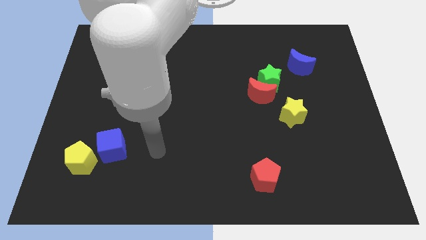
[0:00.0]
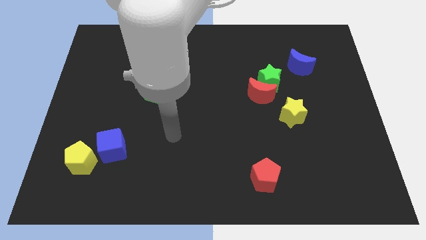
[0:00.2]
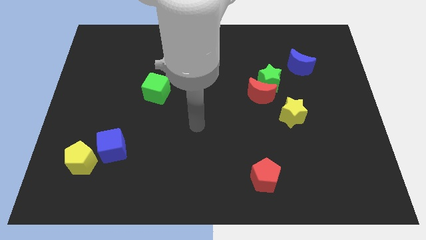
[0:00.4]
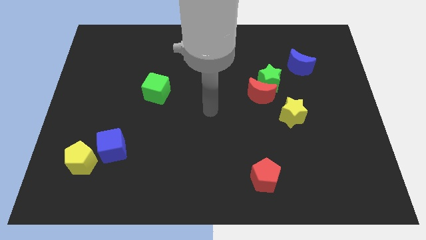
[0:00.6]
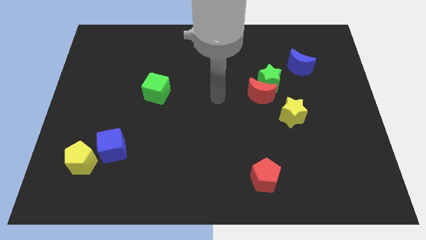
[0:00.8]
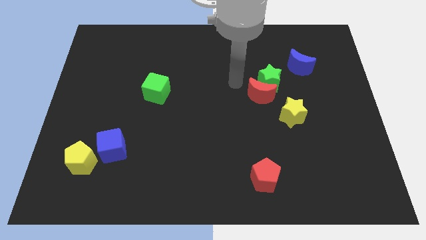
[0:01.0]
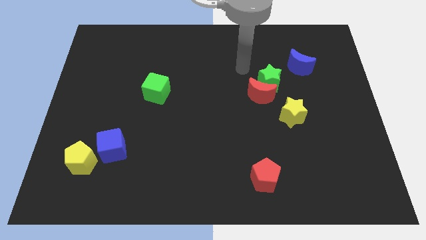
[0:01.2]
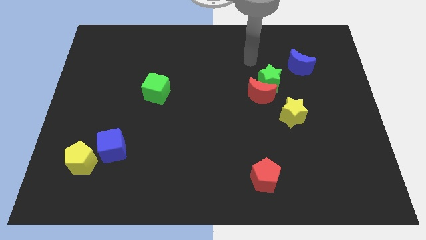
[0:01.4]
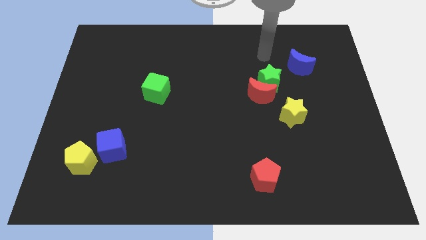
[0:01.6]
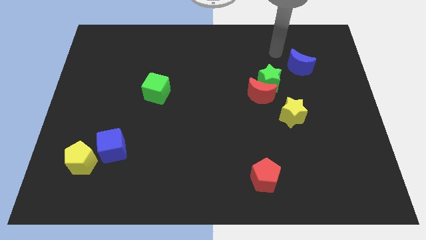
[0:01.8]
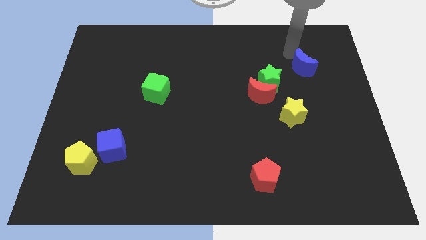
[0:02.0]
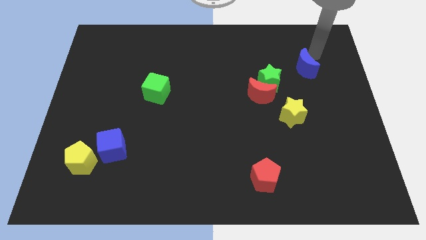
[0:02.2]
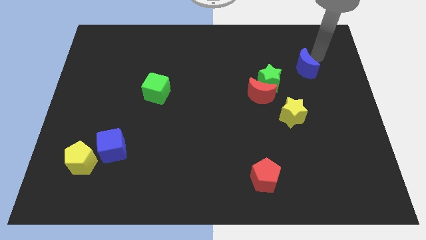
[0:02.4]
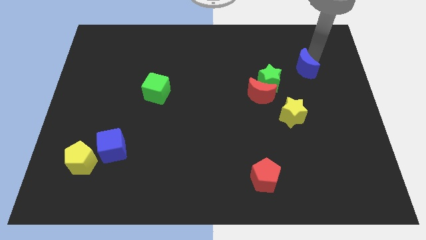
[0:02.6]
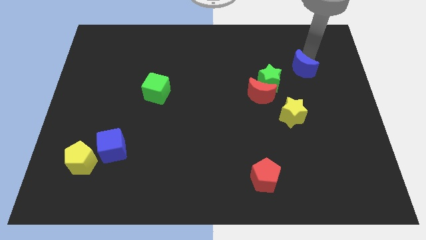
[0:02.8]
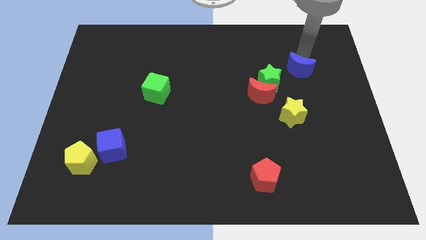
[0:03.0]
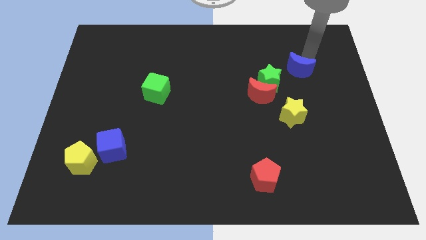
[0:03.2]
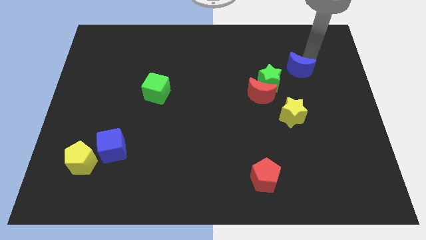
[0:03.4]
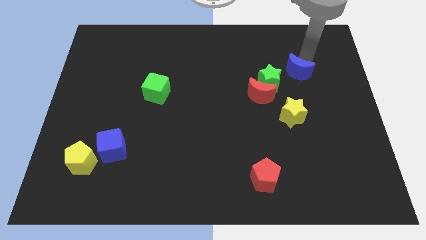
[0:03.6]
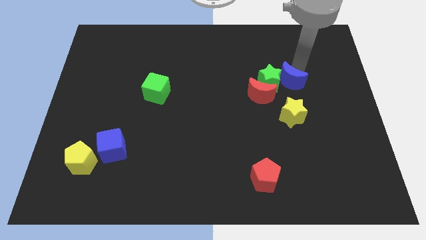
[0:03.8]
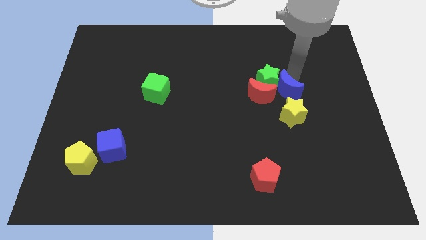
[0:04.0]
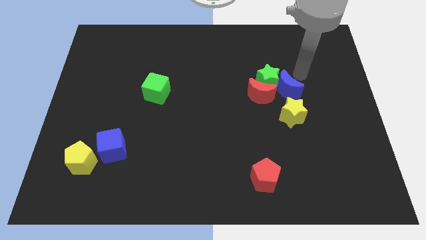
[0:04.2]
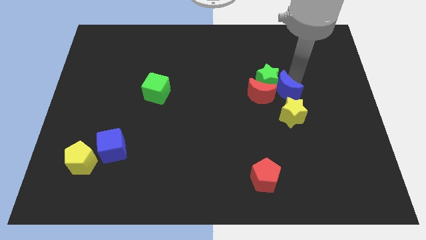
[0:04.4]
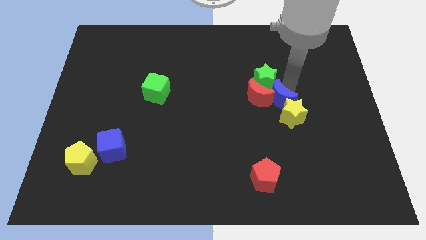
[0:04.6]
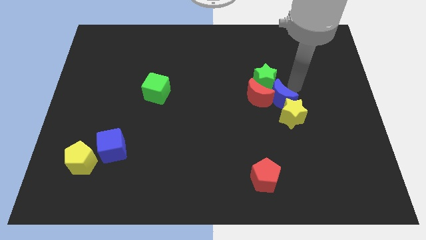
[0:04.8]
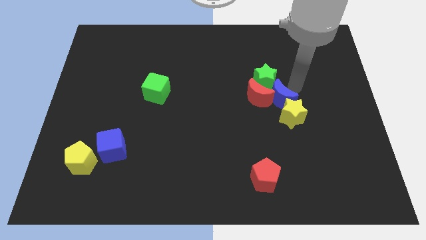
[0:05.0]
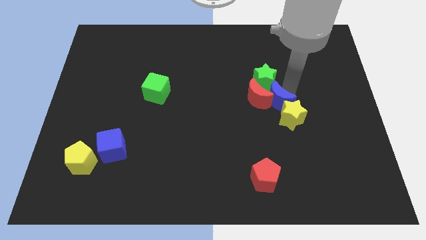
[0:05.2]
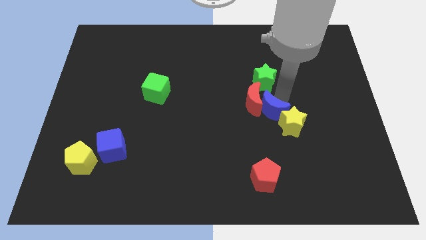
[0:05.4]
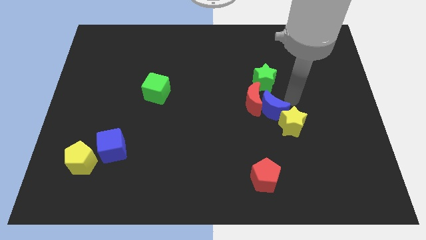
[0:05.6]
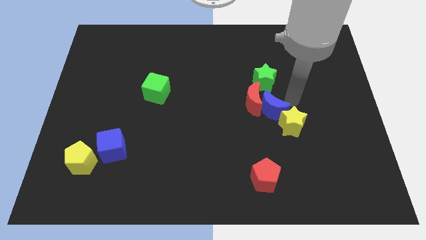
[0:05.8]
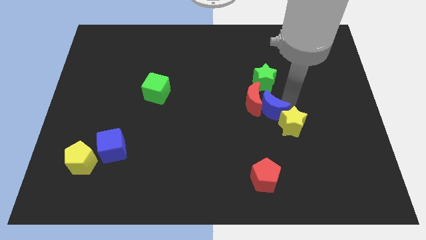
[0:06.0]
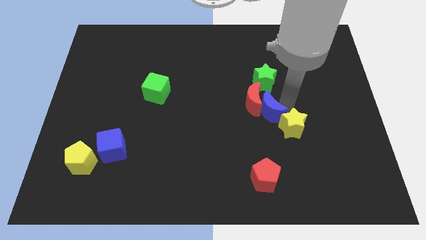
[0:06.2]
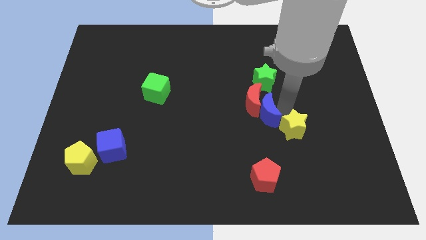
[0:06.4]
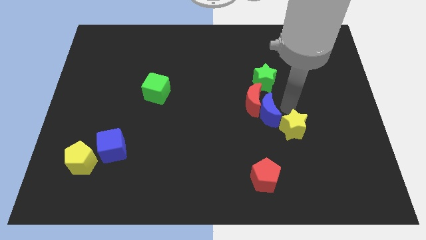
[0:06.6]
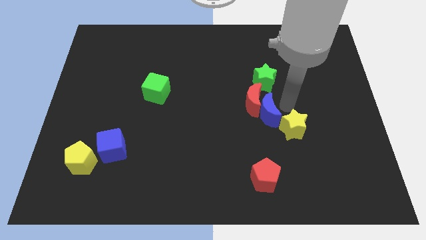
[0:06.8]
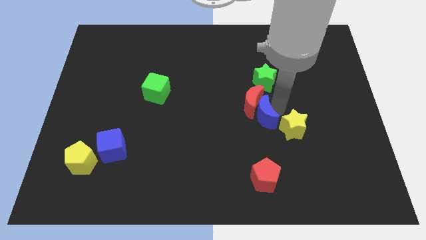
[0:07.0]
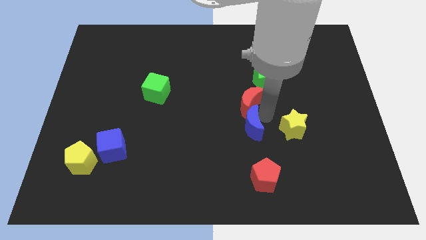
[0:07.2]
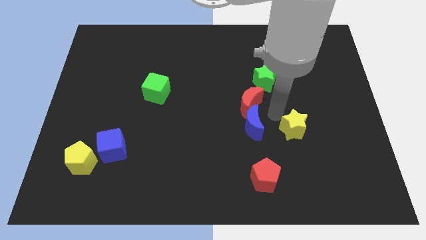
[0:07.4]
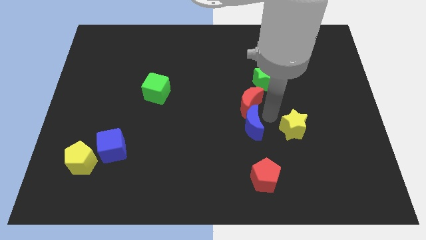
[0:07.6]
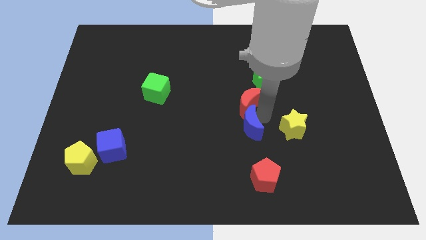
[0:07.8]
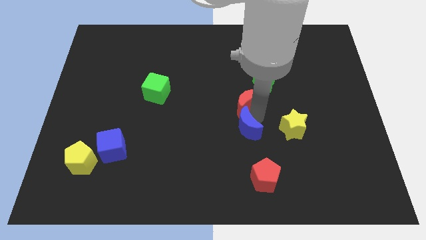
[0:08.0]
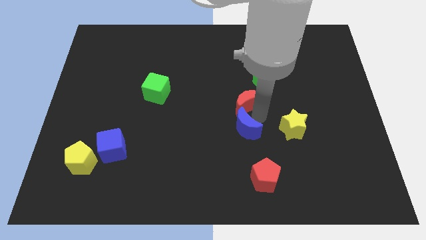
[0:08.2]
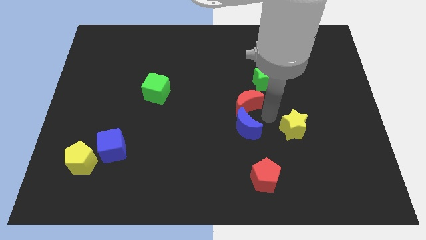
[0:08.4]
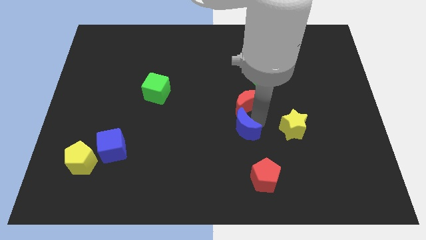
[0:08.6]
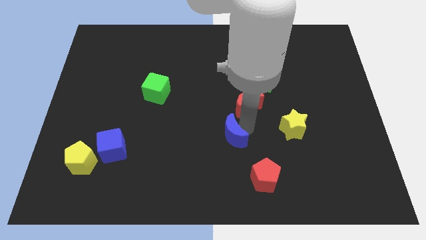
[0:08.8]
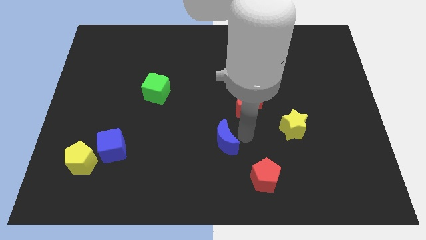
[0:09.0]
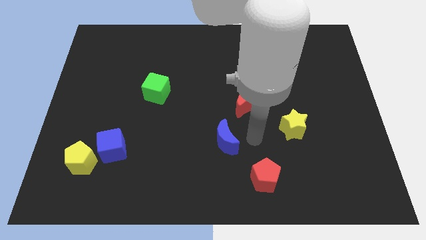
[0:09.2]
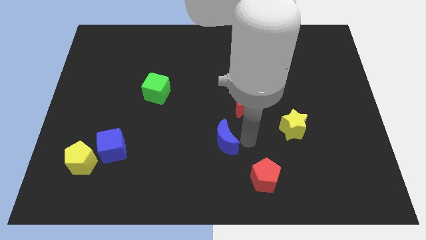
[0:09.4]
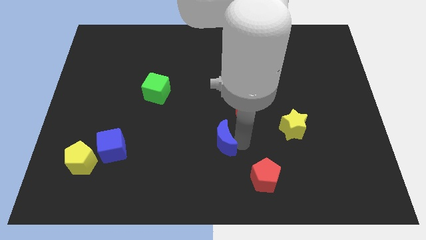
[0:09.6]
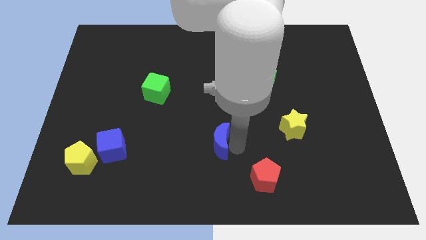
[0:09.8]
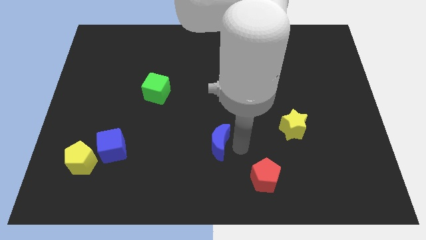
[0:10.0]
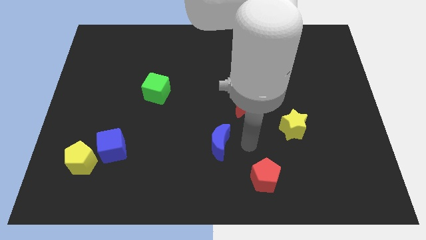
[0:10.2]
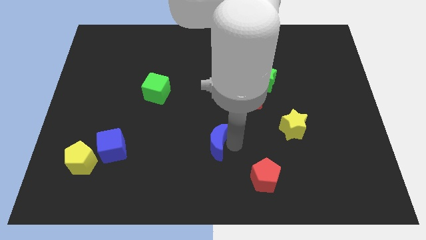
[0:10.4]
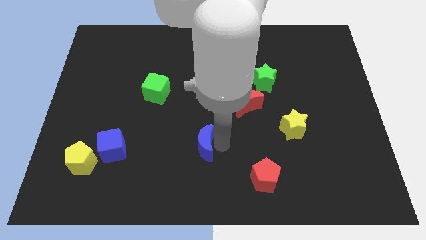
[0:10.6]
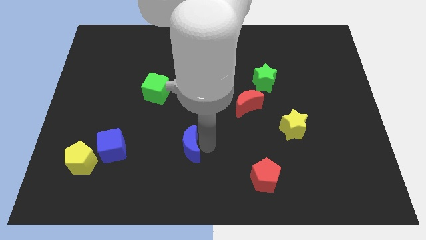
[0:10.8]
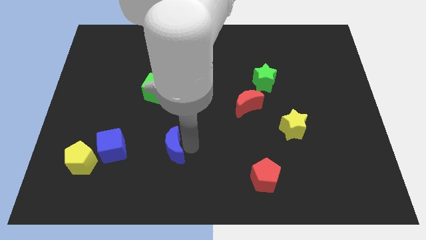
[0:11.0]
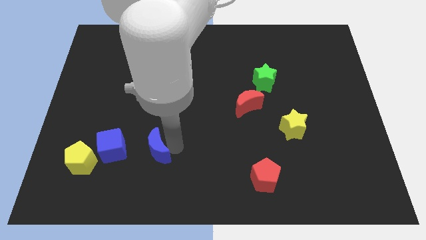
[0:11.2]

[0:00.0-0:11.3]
slide the blue moon to the right of the yellow pentagon
